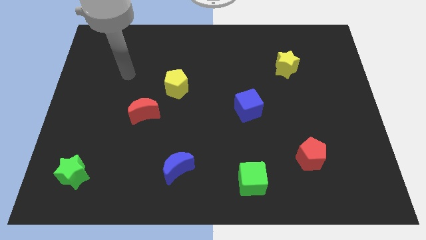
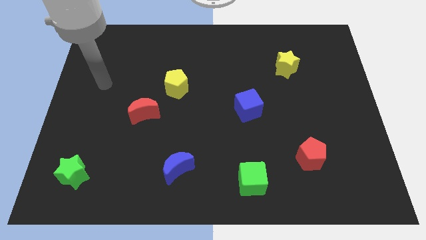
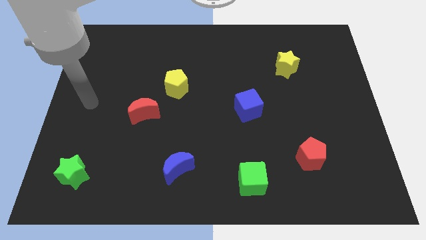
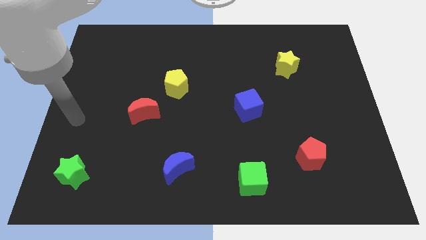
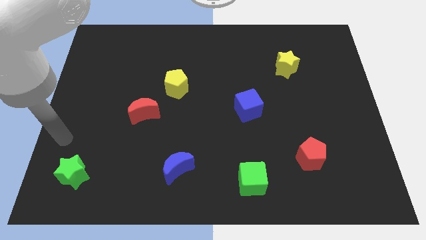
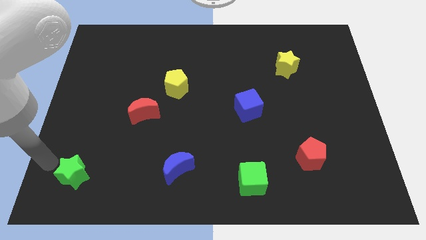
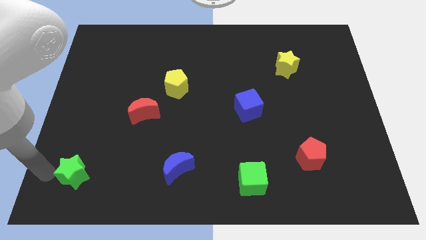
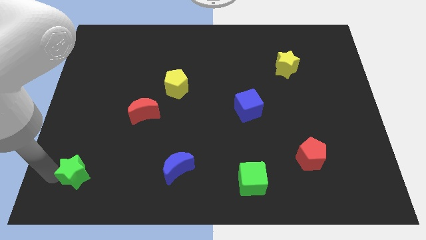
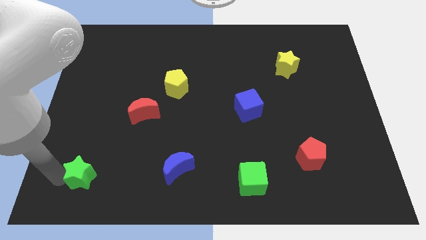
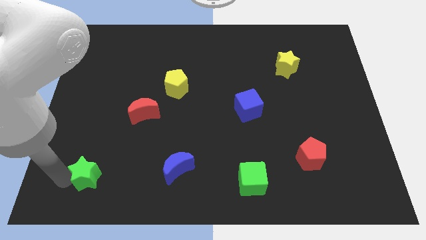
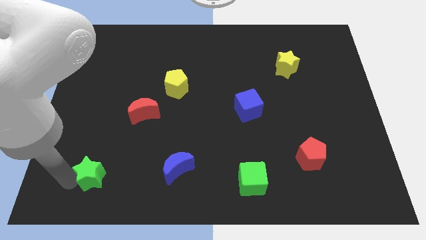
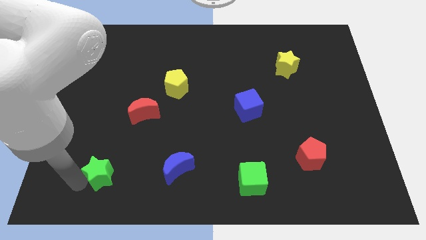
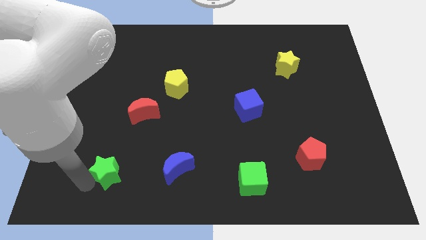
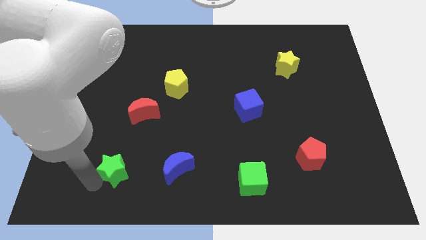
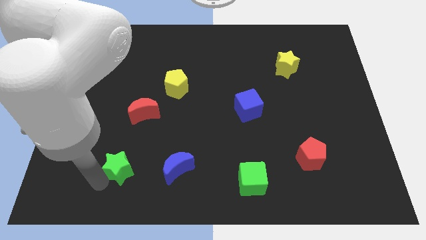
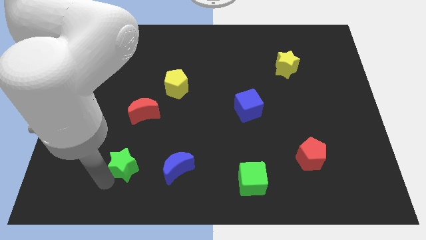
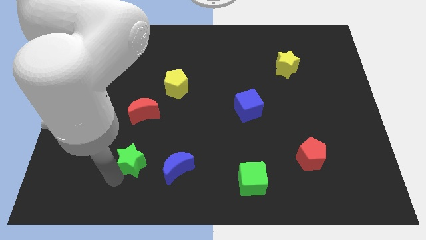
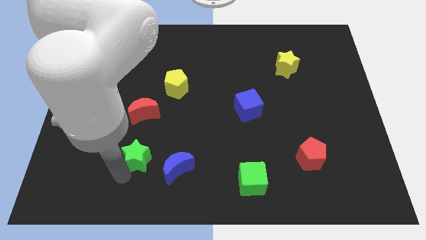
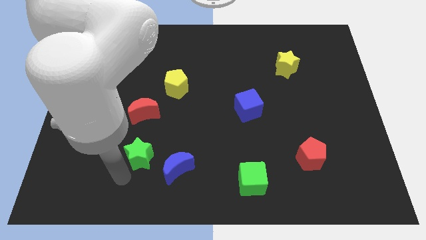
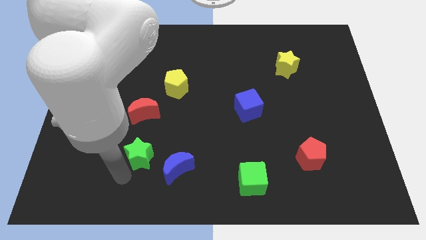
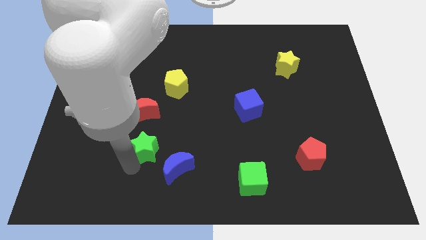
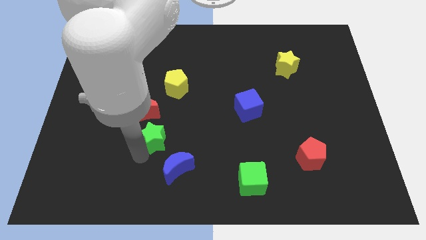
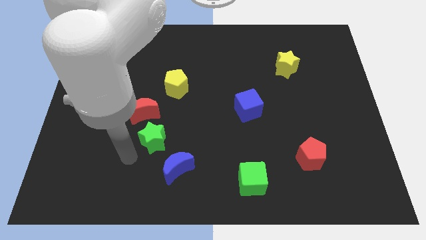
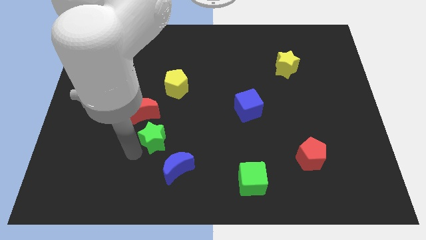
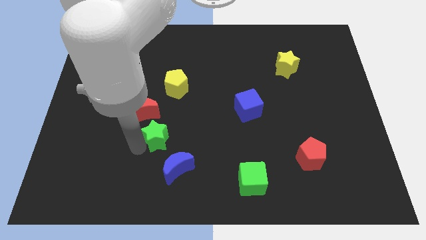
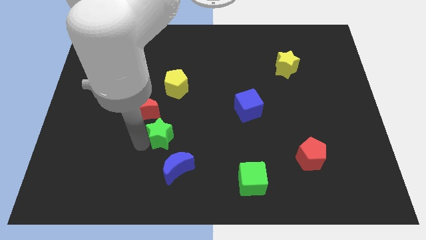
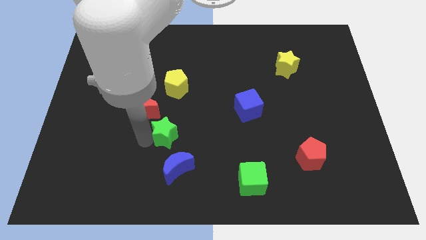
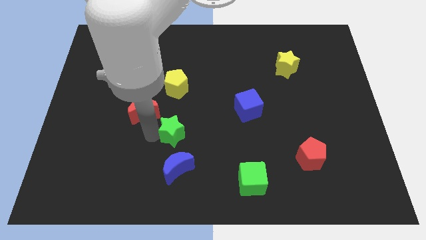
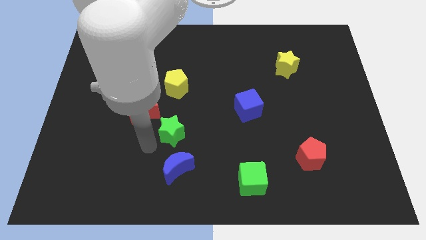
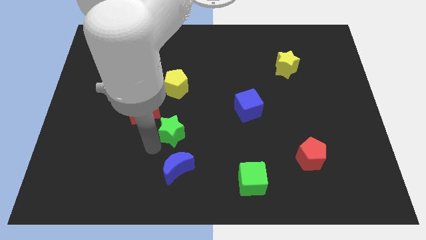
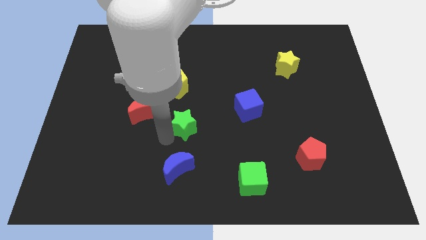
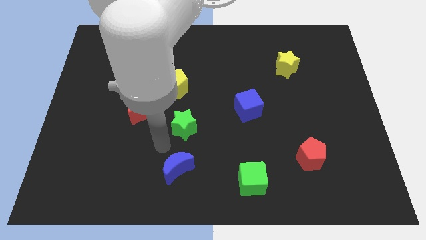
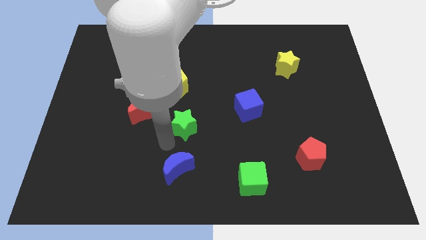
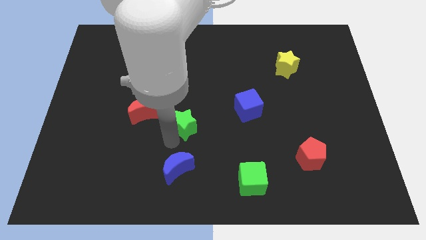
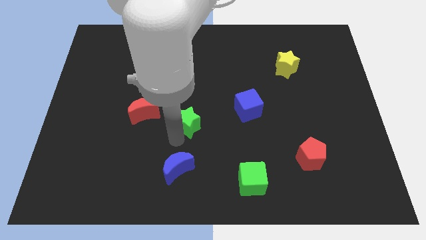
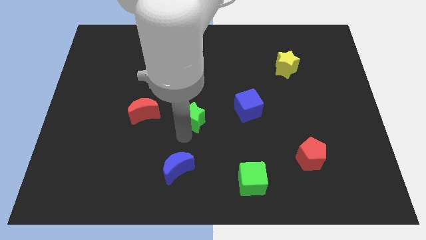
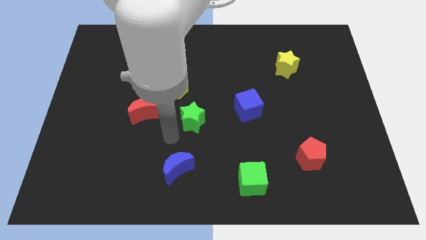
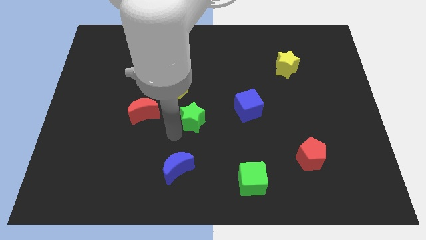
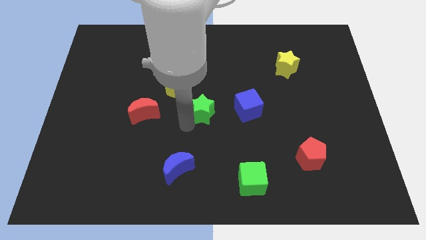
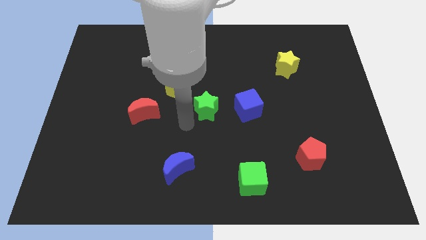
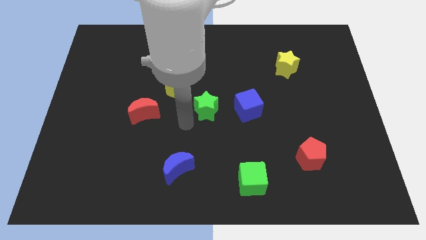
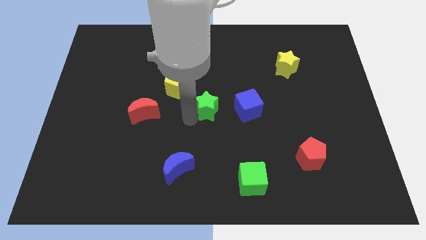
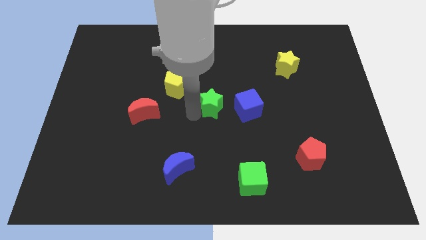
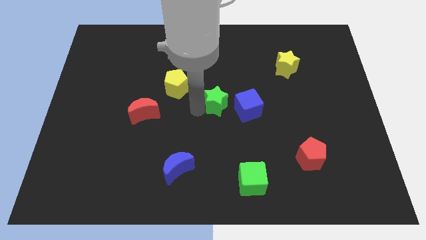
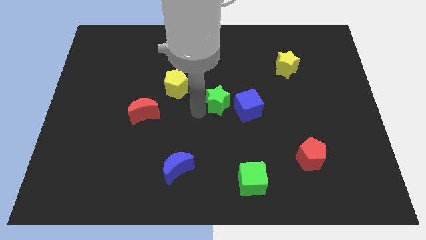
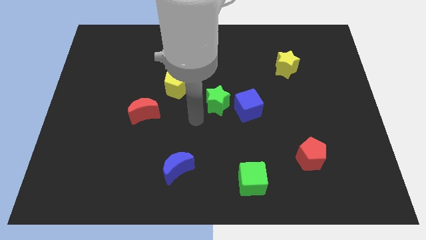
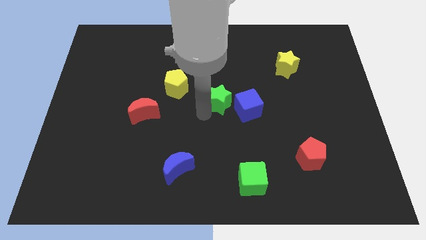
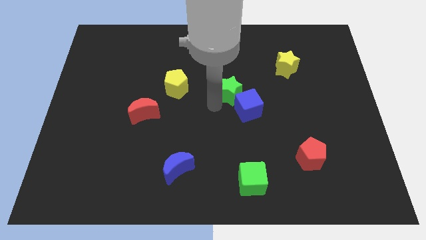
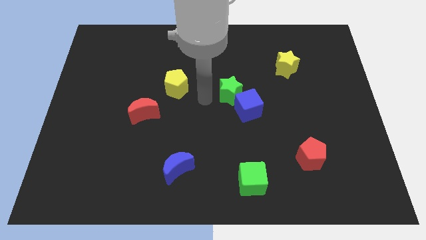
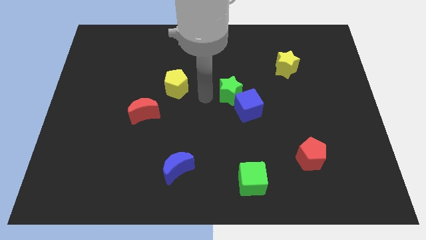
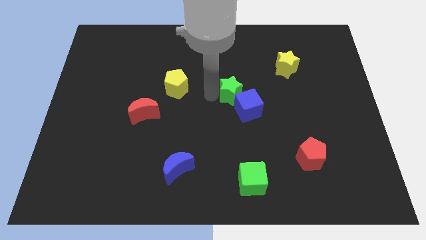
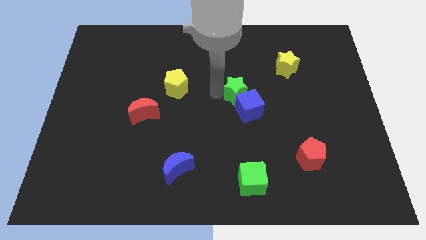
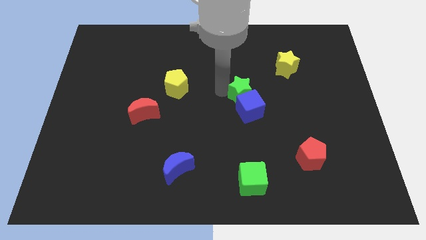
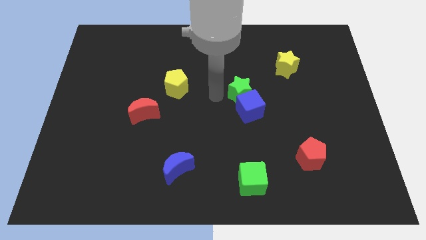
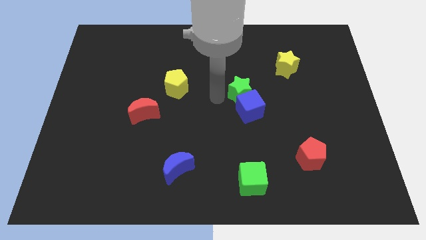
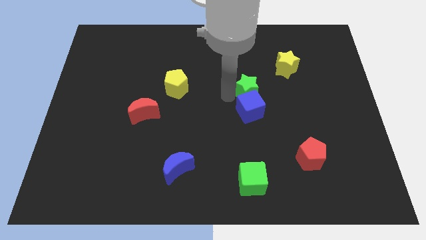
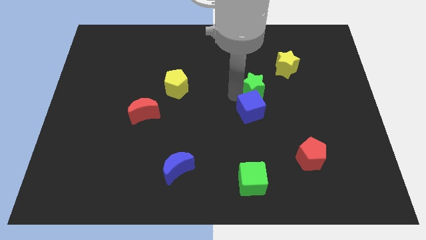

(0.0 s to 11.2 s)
move the green star to the bottom left of the yellow star

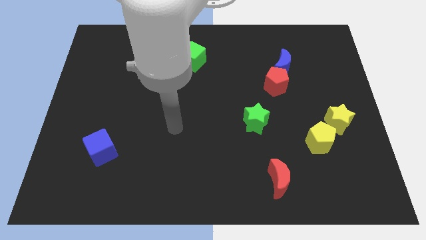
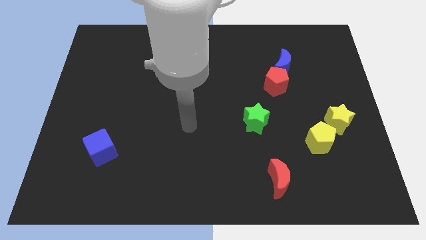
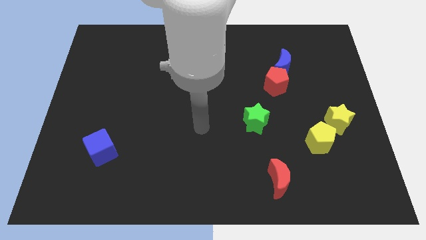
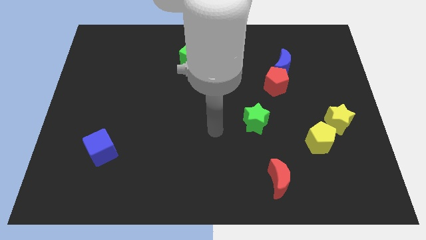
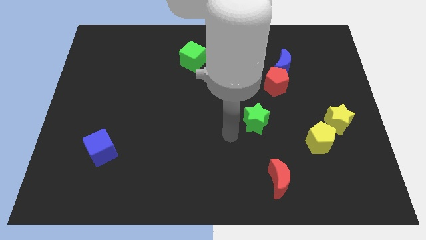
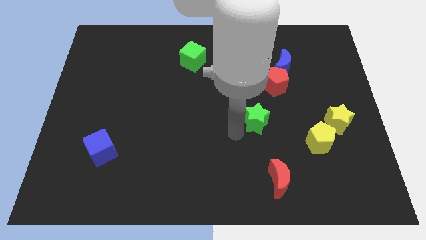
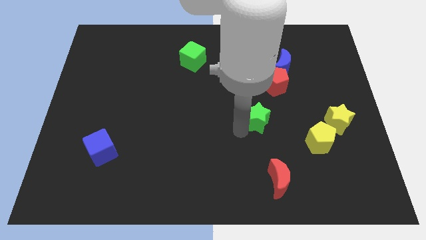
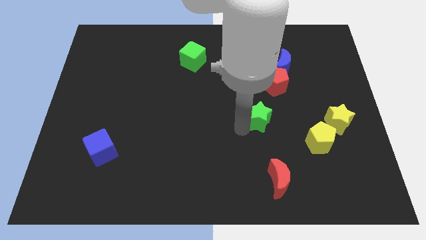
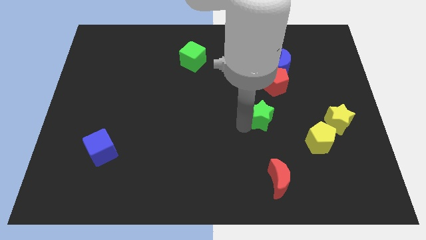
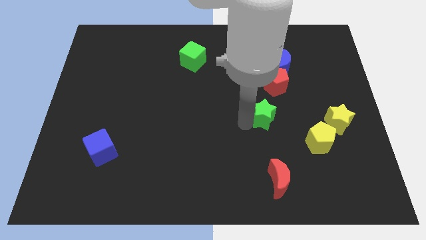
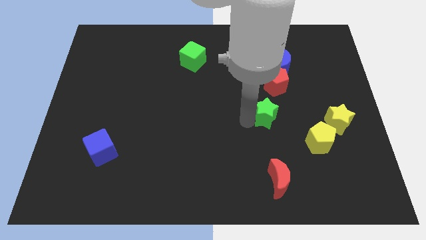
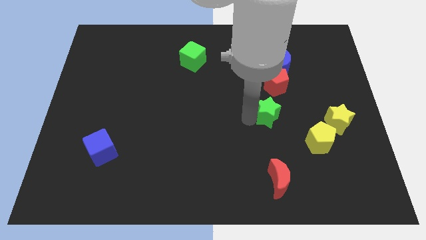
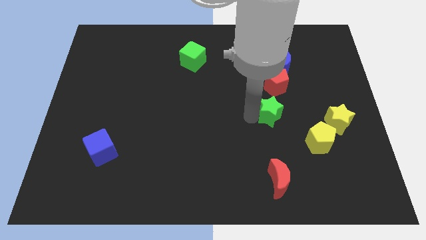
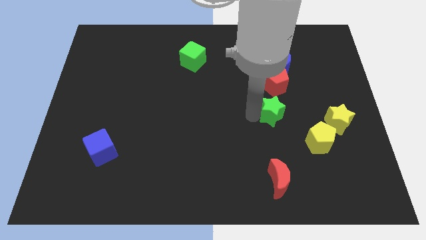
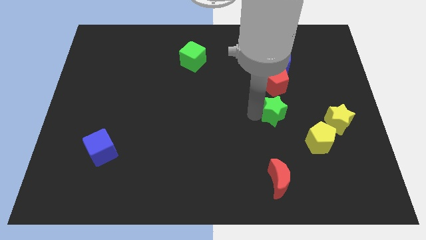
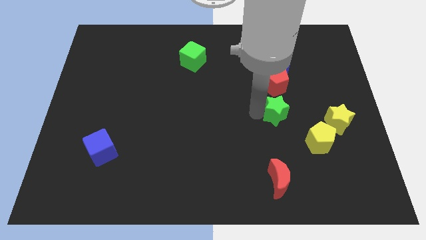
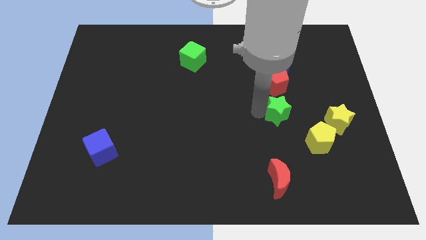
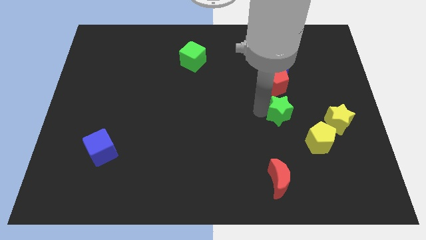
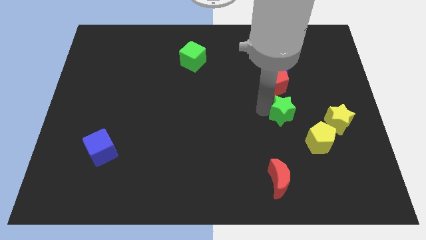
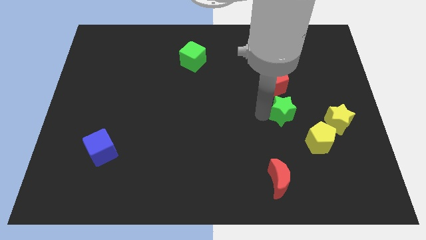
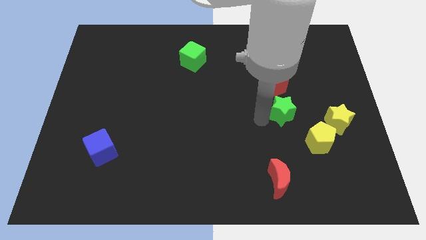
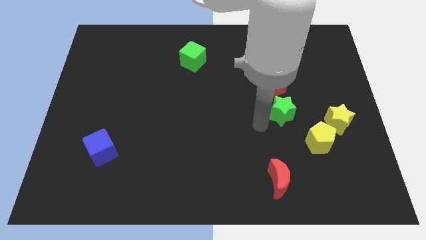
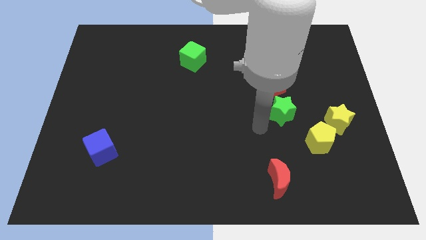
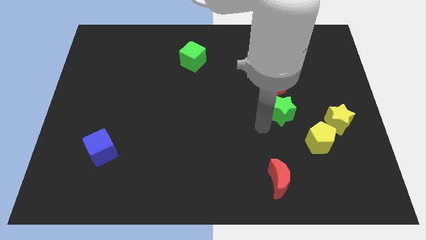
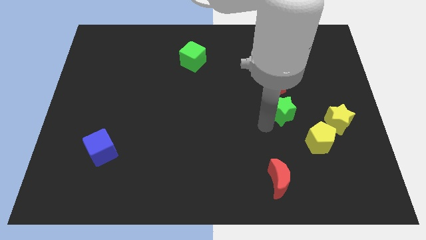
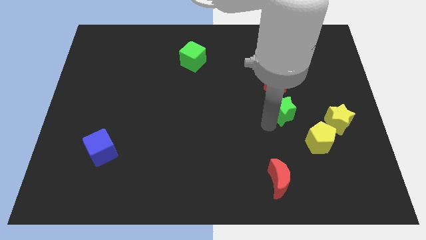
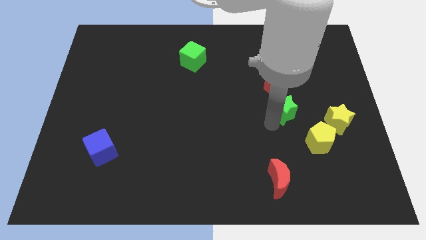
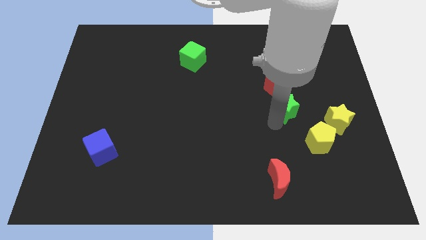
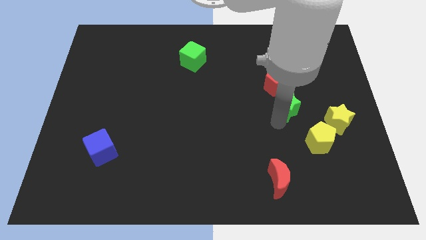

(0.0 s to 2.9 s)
move the green star diagonally down and to the right of the red pentagon
